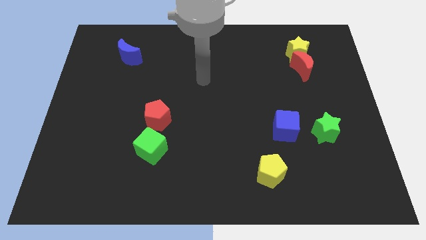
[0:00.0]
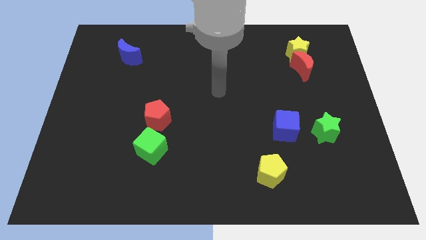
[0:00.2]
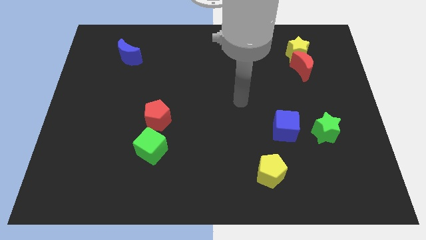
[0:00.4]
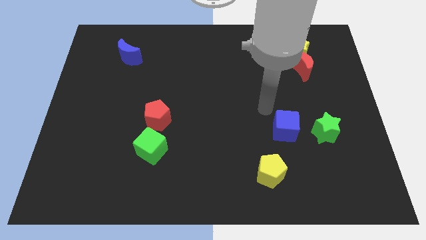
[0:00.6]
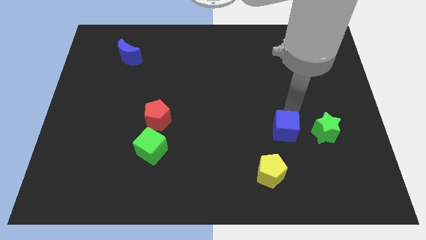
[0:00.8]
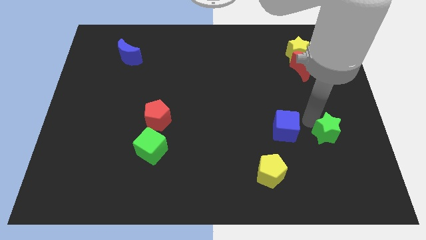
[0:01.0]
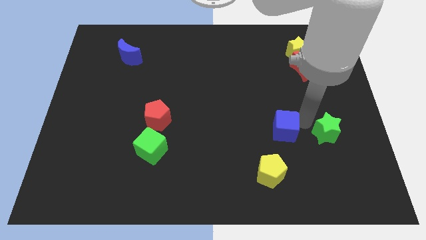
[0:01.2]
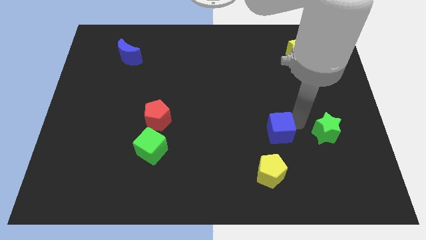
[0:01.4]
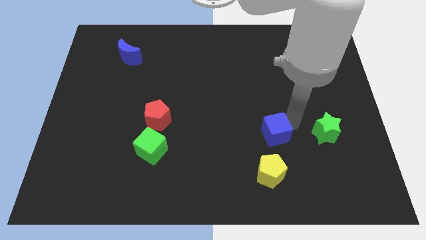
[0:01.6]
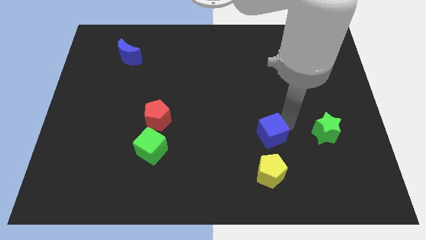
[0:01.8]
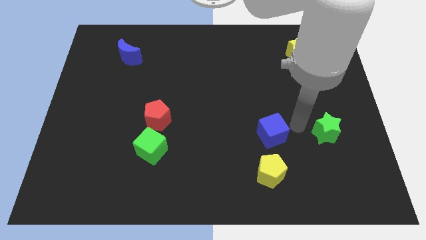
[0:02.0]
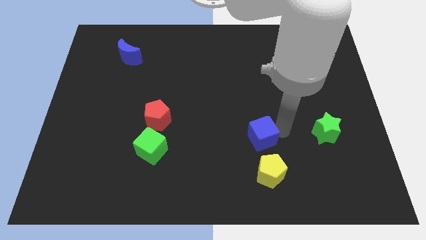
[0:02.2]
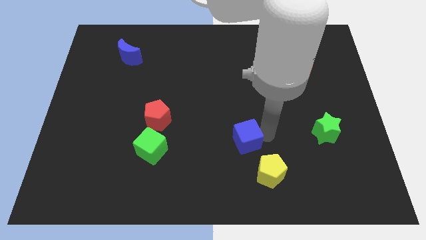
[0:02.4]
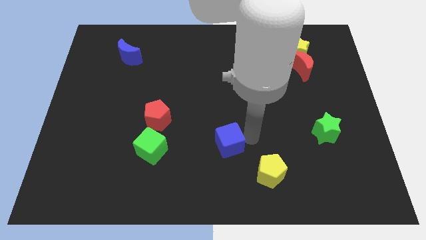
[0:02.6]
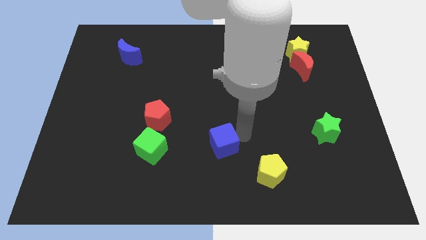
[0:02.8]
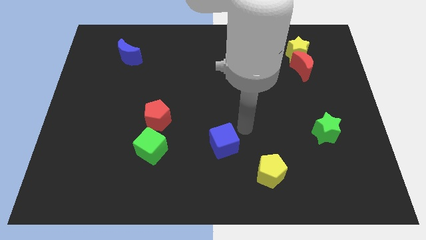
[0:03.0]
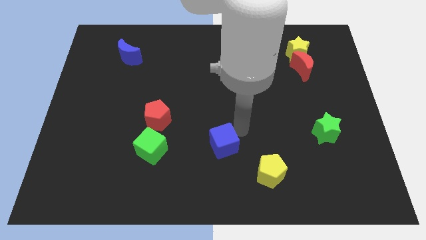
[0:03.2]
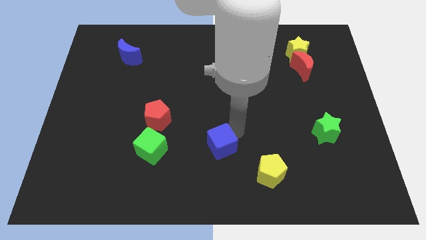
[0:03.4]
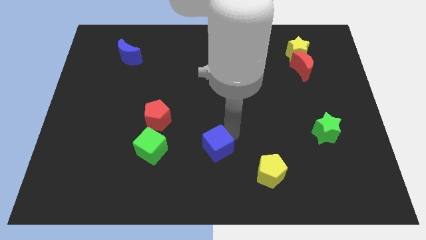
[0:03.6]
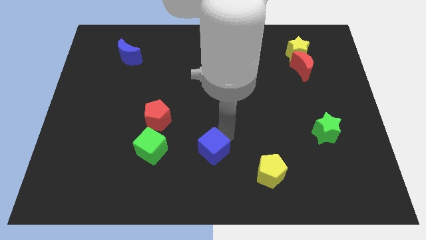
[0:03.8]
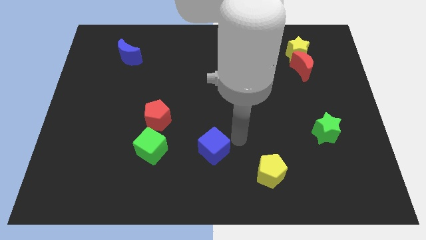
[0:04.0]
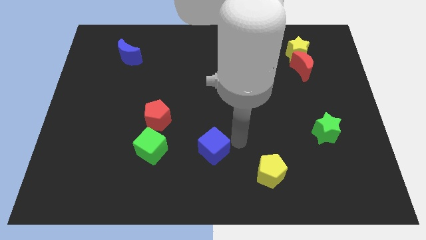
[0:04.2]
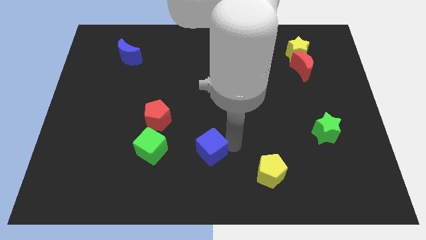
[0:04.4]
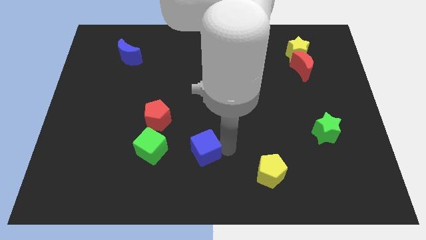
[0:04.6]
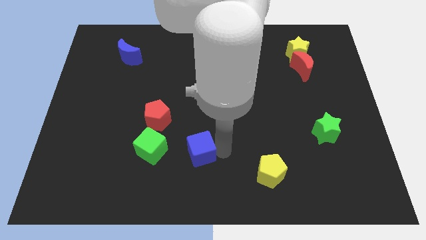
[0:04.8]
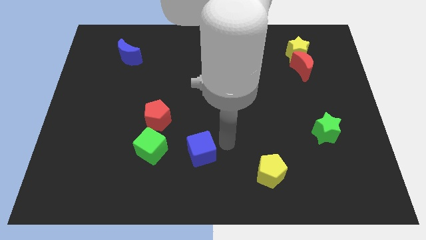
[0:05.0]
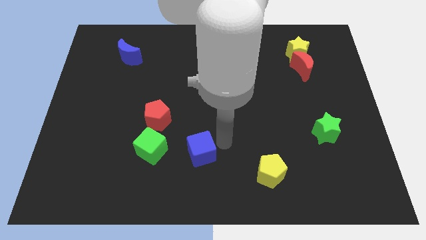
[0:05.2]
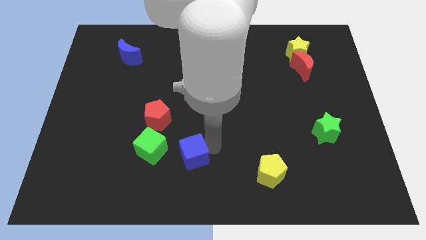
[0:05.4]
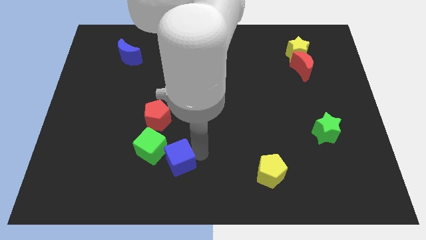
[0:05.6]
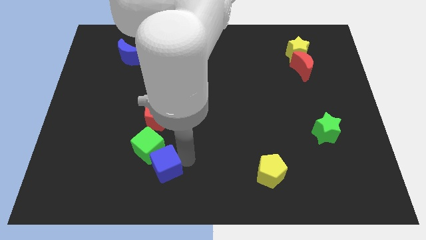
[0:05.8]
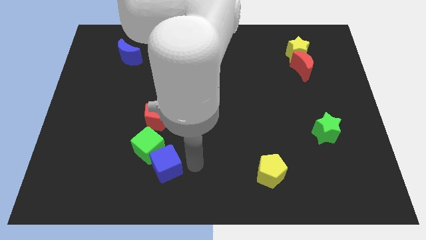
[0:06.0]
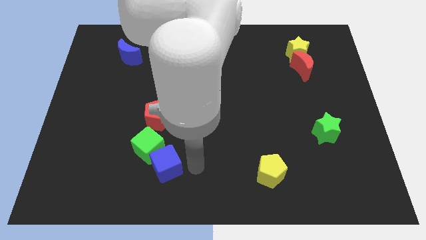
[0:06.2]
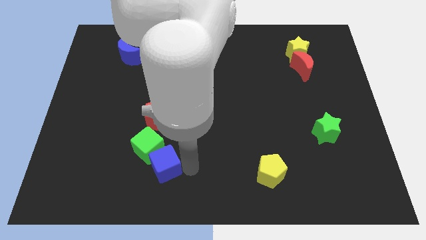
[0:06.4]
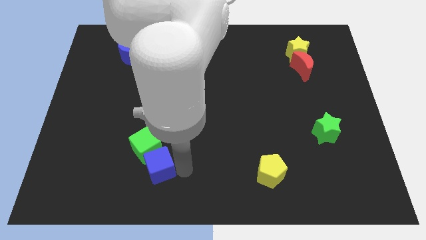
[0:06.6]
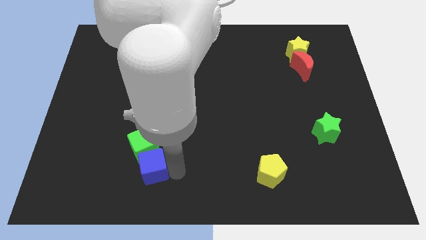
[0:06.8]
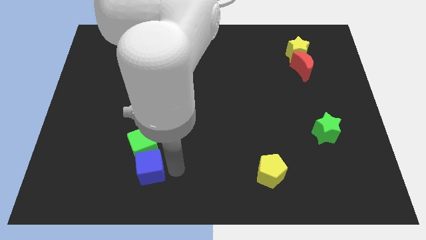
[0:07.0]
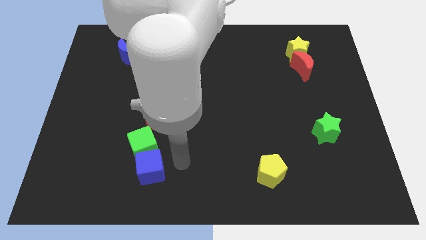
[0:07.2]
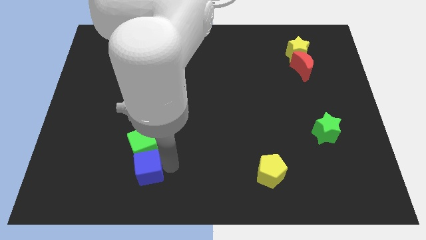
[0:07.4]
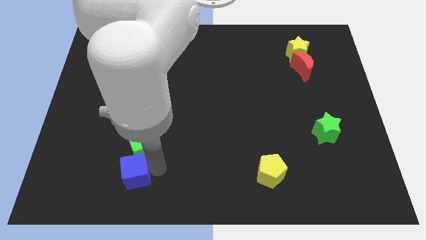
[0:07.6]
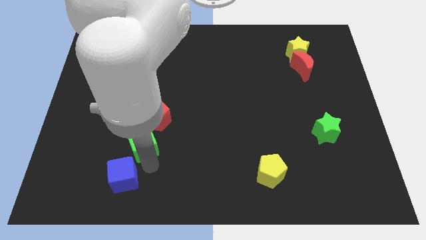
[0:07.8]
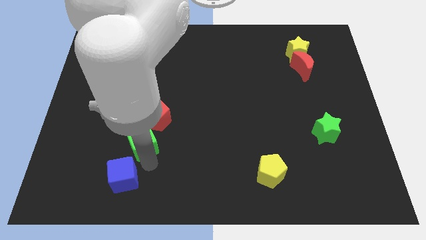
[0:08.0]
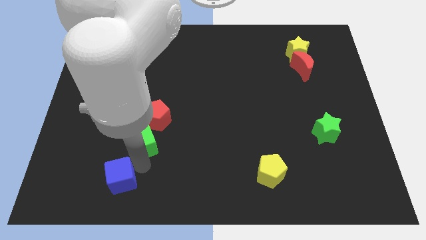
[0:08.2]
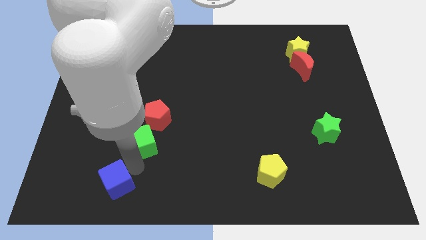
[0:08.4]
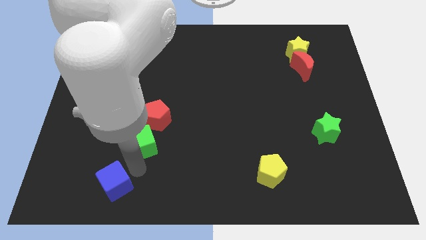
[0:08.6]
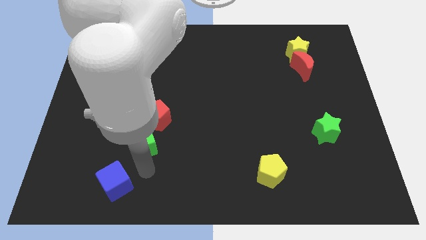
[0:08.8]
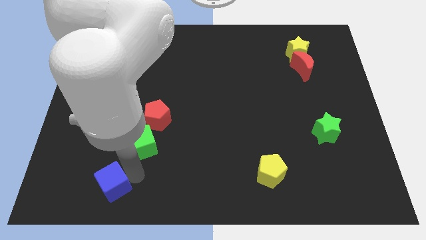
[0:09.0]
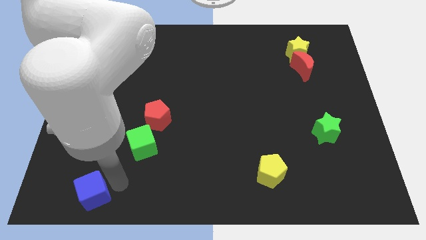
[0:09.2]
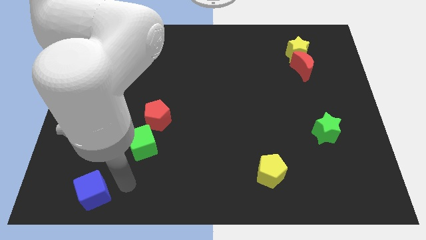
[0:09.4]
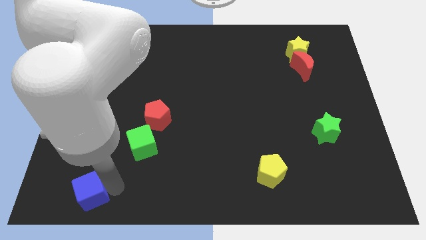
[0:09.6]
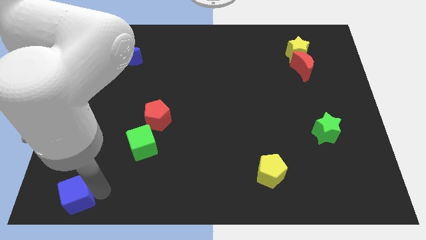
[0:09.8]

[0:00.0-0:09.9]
move the blue cube to the lower left corner

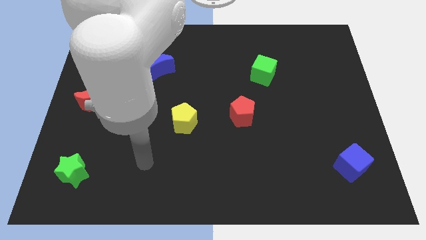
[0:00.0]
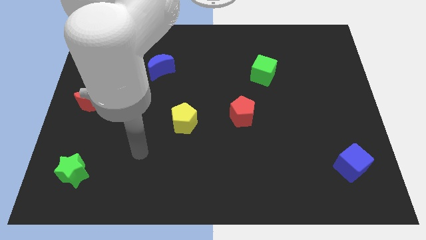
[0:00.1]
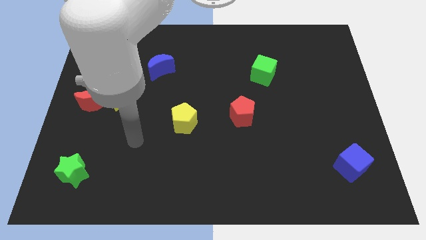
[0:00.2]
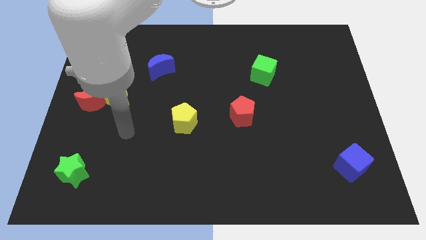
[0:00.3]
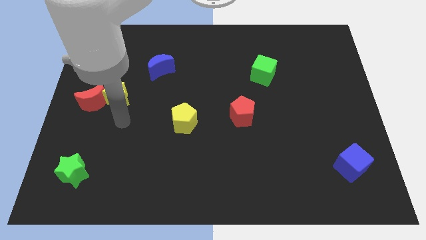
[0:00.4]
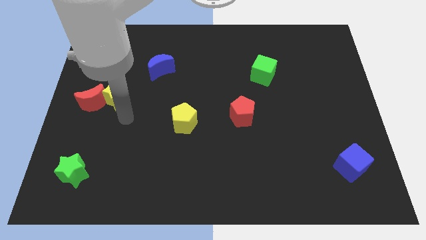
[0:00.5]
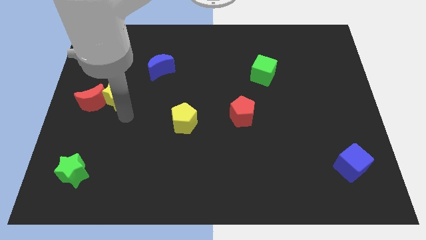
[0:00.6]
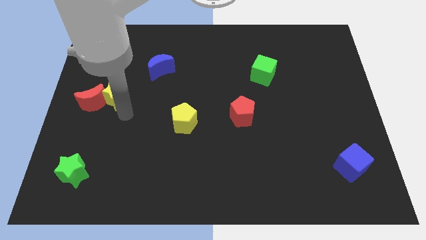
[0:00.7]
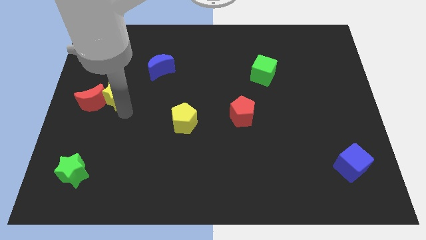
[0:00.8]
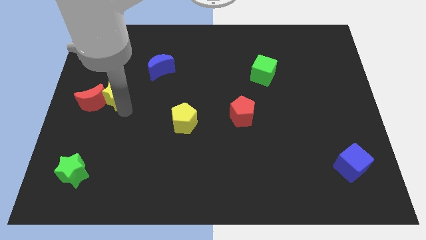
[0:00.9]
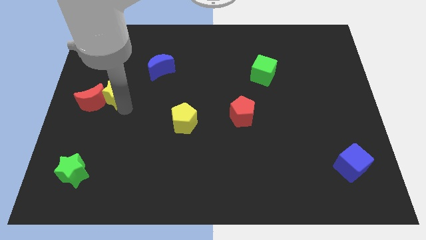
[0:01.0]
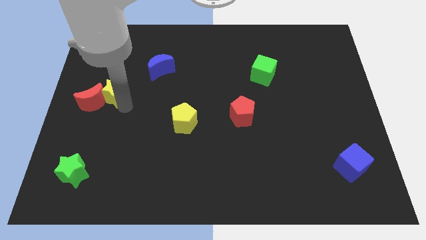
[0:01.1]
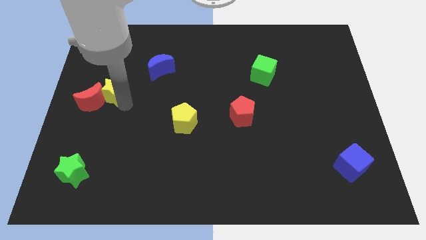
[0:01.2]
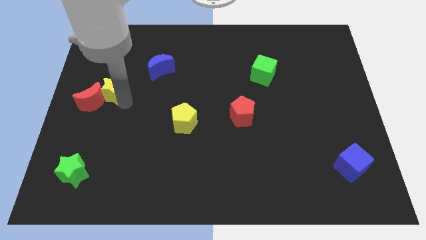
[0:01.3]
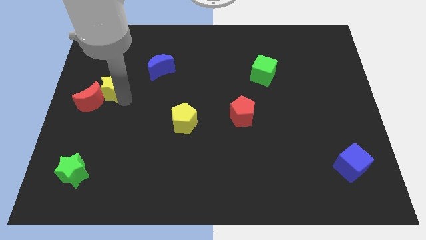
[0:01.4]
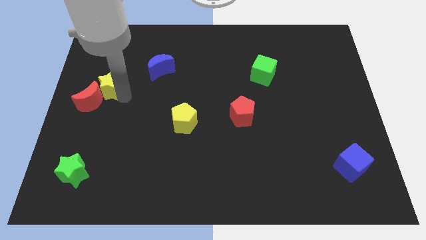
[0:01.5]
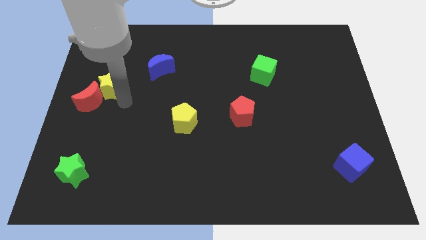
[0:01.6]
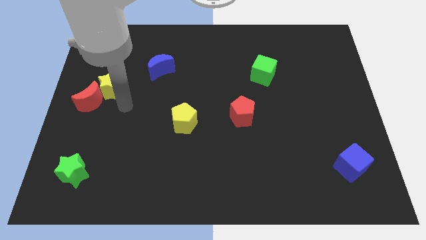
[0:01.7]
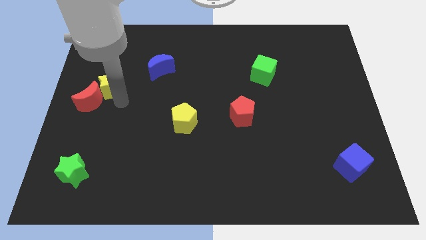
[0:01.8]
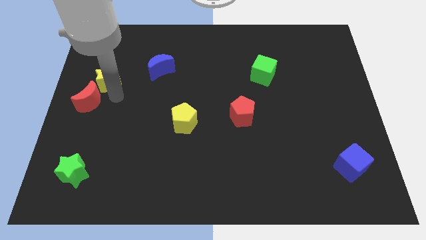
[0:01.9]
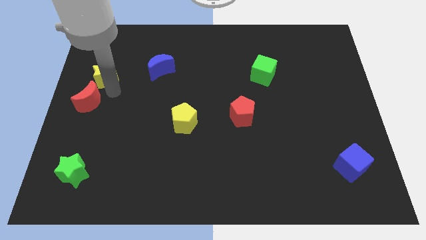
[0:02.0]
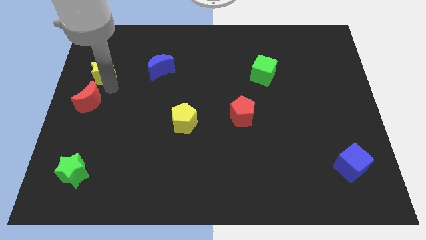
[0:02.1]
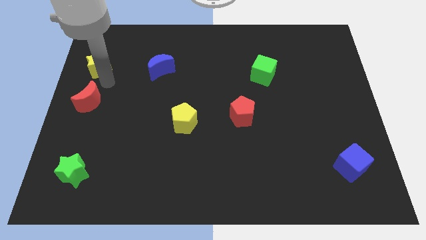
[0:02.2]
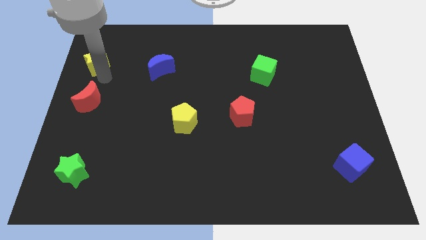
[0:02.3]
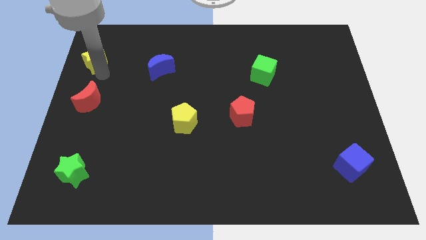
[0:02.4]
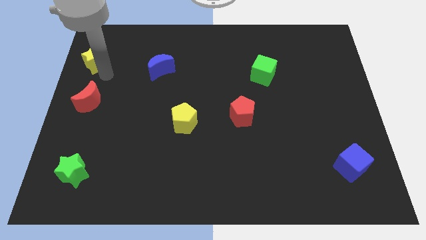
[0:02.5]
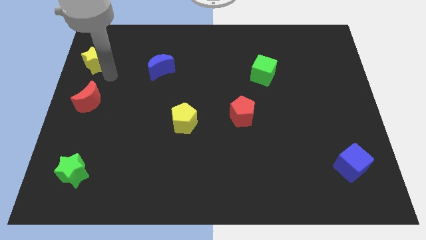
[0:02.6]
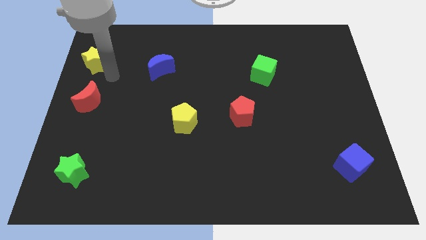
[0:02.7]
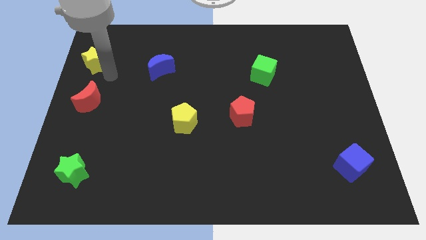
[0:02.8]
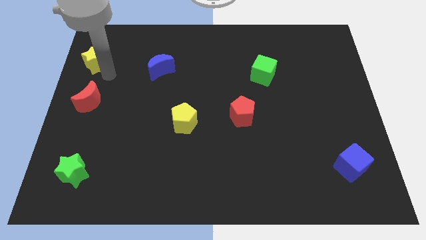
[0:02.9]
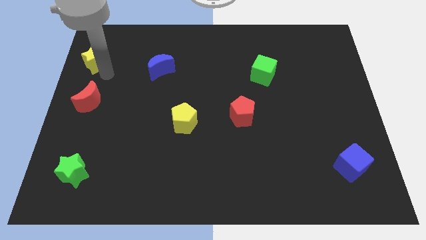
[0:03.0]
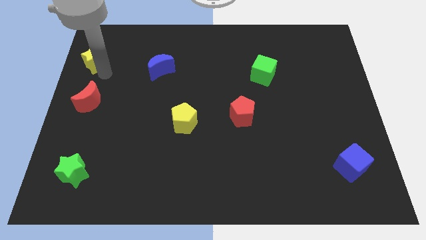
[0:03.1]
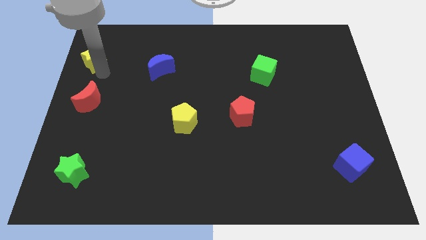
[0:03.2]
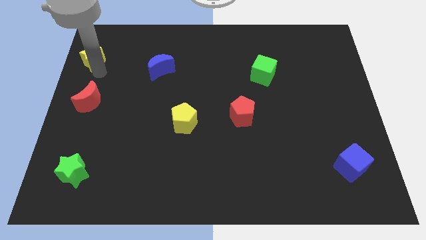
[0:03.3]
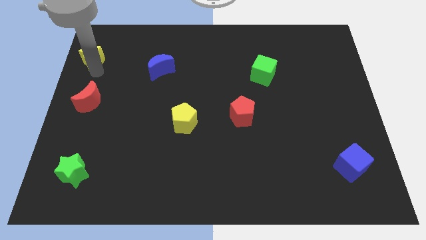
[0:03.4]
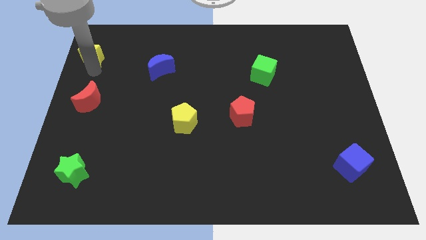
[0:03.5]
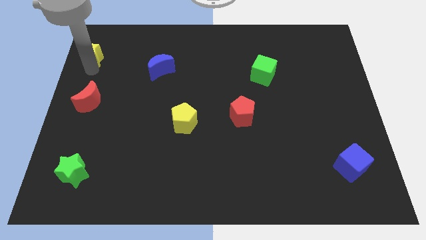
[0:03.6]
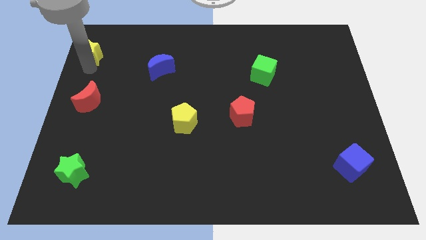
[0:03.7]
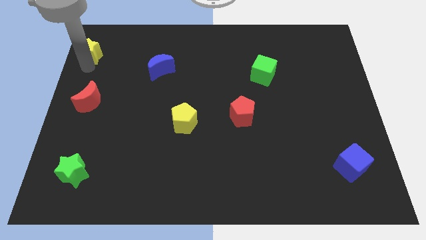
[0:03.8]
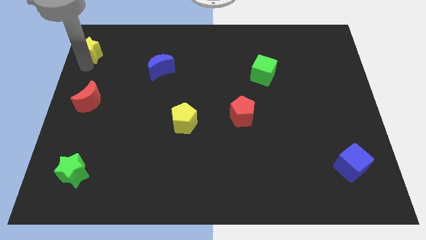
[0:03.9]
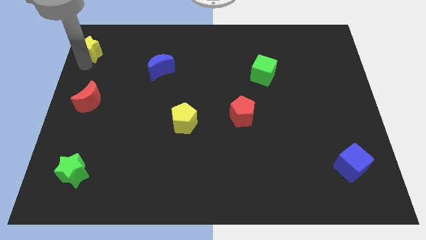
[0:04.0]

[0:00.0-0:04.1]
put the yellow star to the top left
